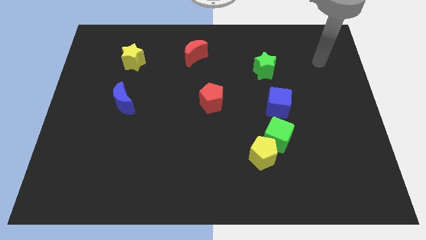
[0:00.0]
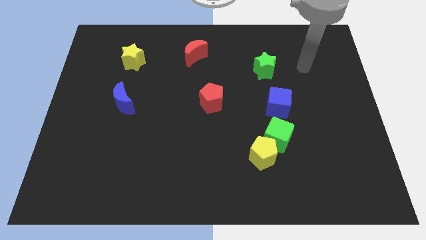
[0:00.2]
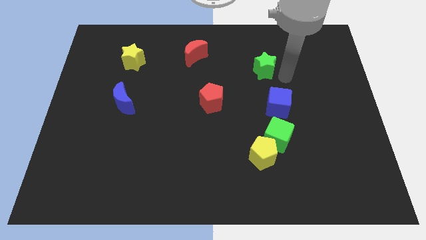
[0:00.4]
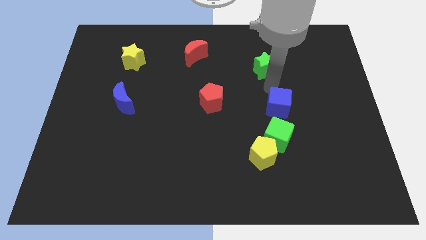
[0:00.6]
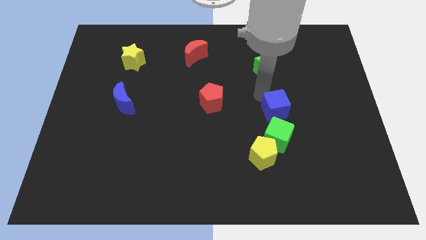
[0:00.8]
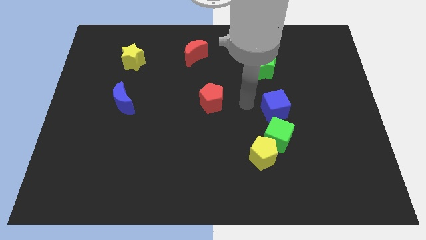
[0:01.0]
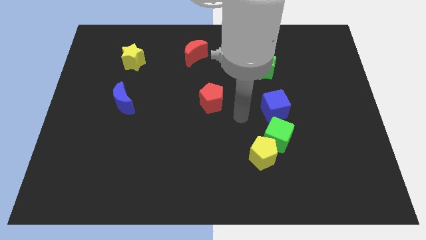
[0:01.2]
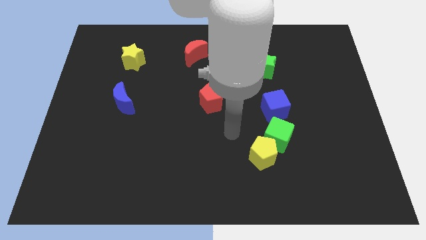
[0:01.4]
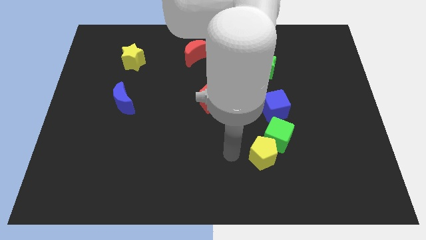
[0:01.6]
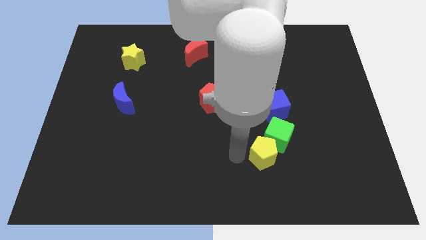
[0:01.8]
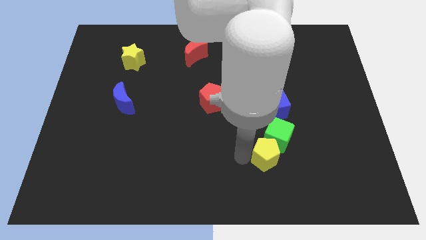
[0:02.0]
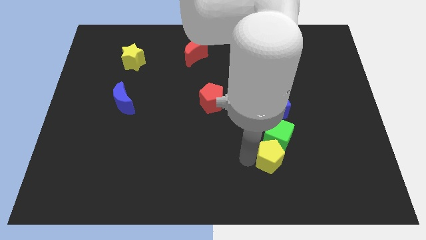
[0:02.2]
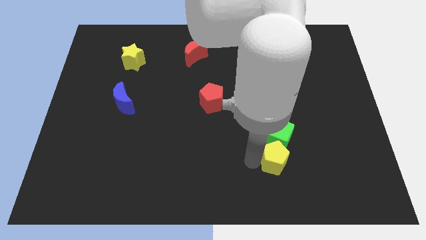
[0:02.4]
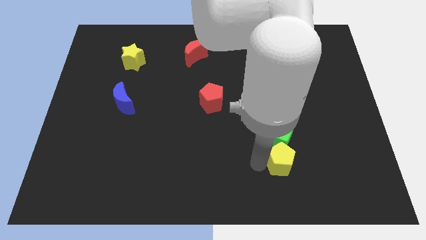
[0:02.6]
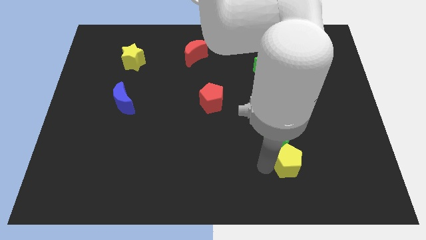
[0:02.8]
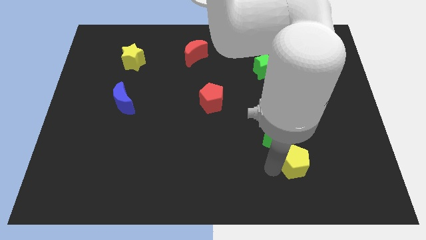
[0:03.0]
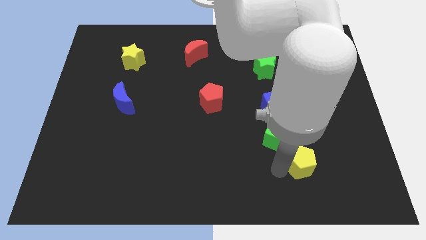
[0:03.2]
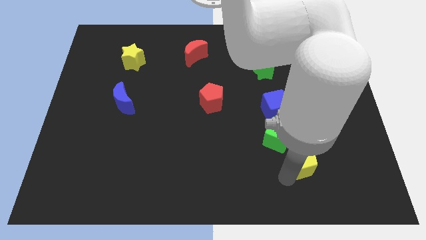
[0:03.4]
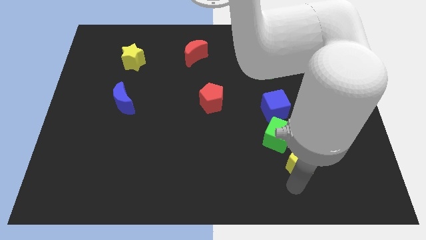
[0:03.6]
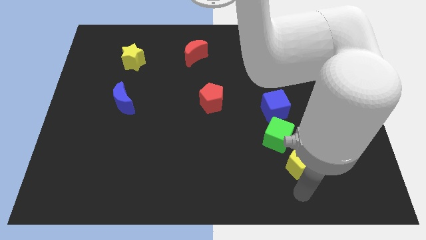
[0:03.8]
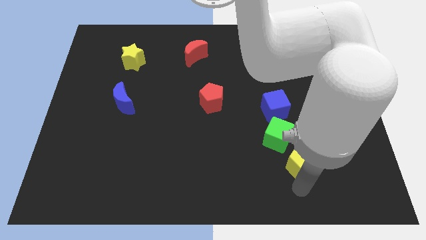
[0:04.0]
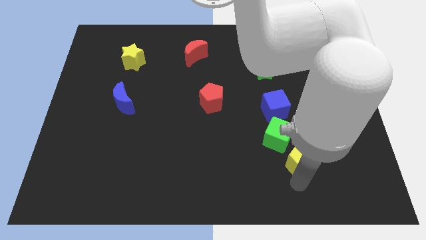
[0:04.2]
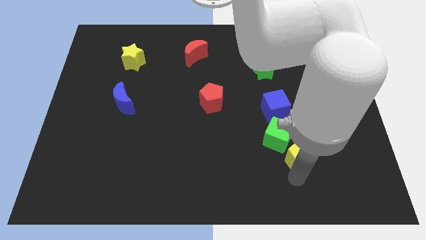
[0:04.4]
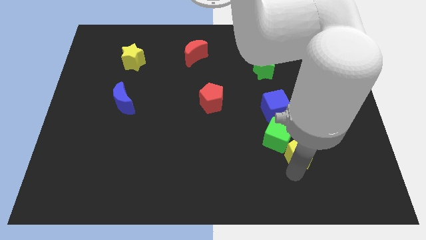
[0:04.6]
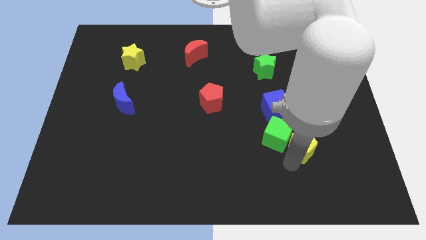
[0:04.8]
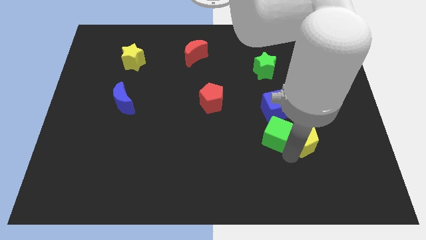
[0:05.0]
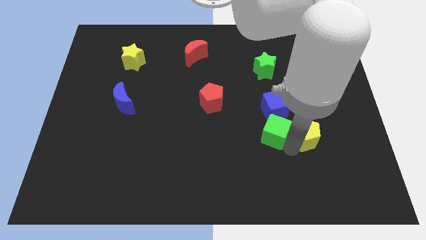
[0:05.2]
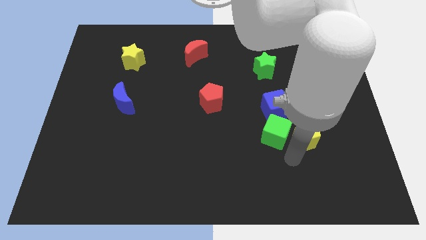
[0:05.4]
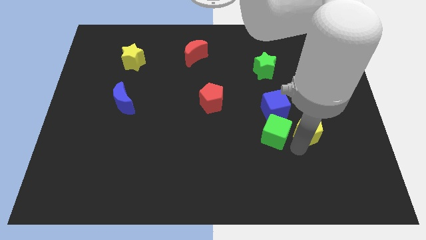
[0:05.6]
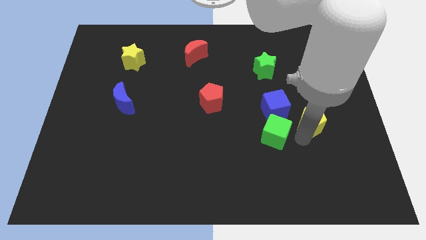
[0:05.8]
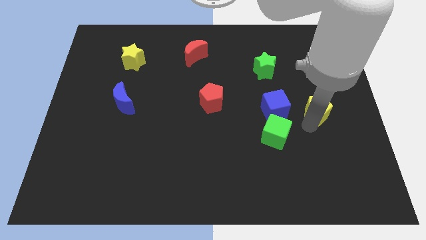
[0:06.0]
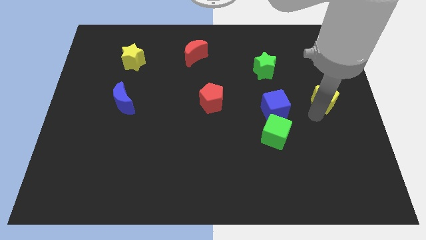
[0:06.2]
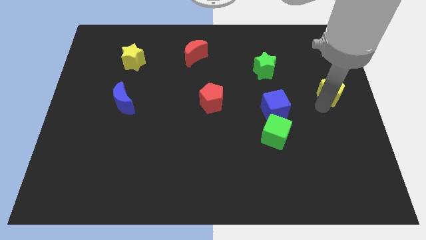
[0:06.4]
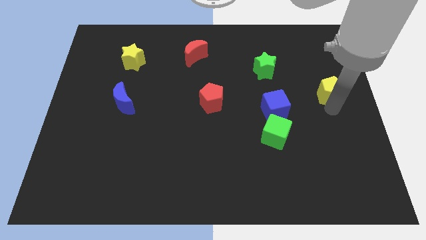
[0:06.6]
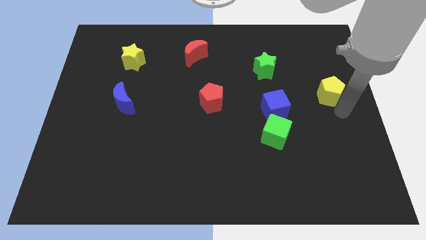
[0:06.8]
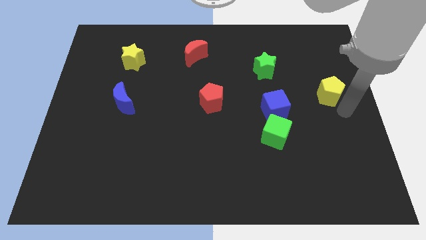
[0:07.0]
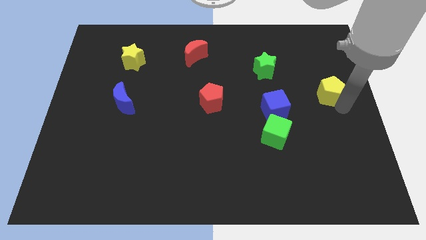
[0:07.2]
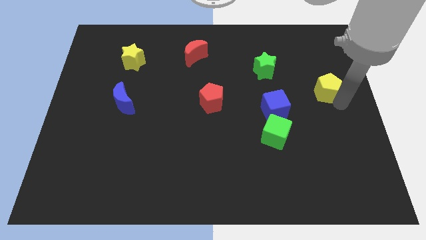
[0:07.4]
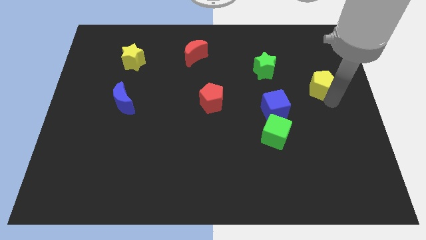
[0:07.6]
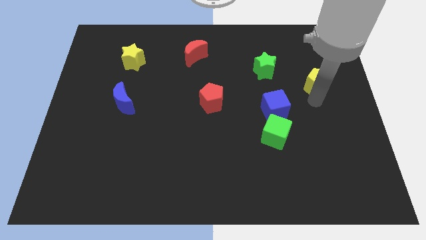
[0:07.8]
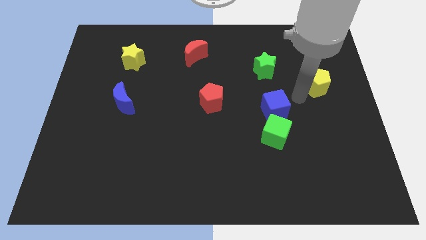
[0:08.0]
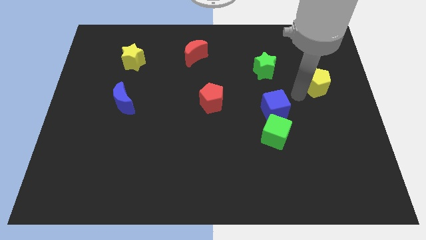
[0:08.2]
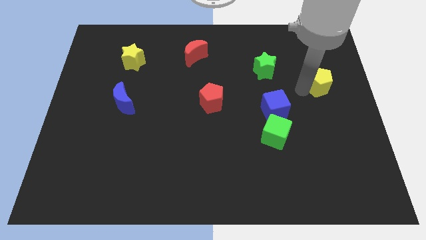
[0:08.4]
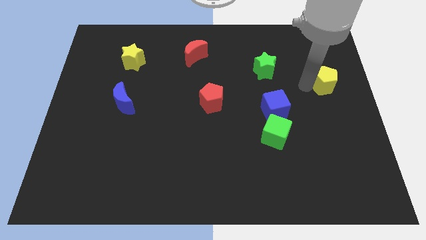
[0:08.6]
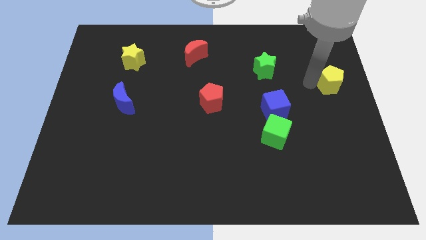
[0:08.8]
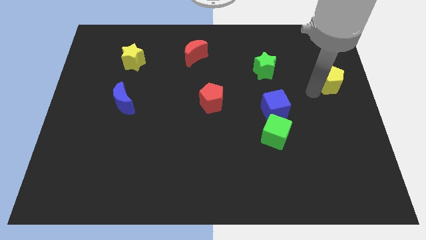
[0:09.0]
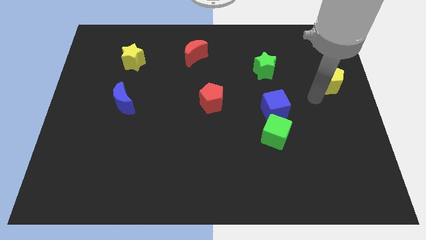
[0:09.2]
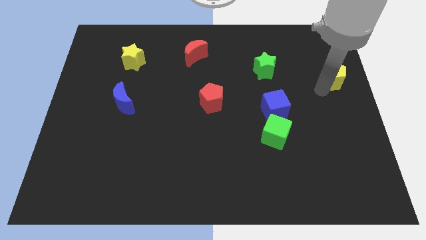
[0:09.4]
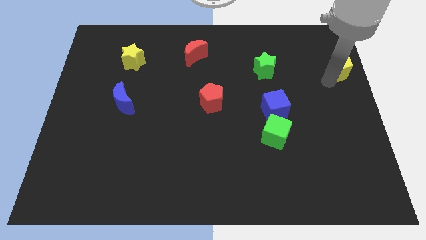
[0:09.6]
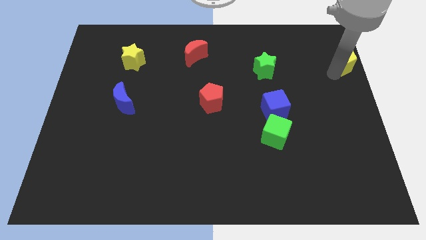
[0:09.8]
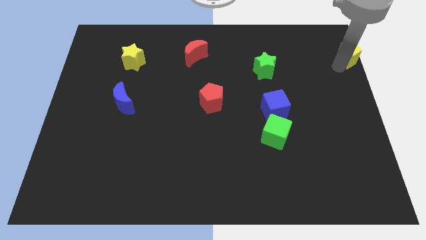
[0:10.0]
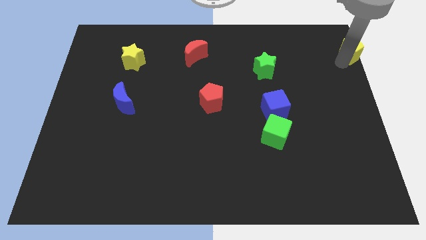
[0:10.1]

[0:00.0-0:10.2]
push the yellow pentagon to the top right corner

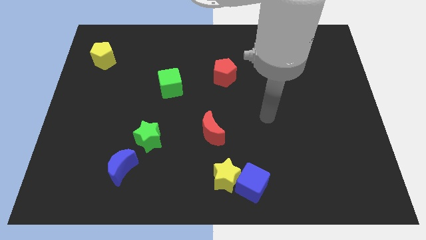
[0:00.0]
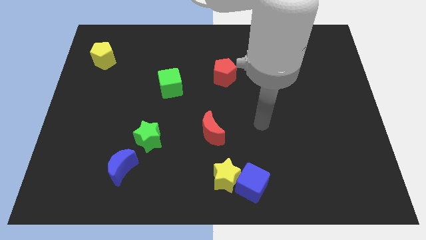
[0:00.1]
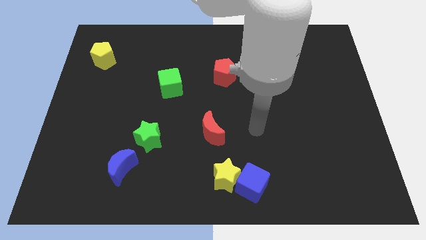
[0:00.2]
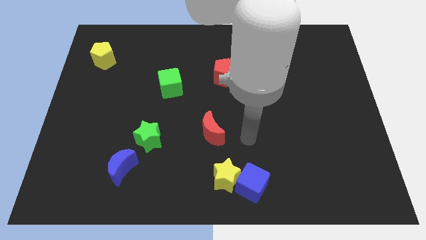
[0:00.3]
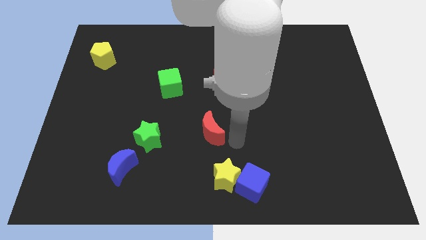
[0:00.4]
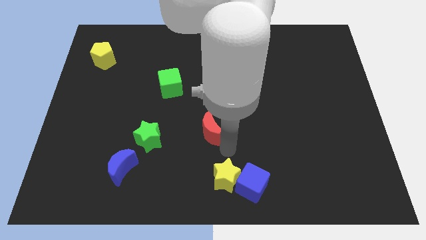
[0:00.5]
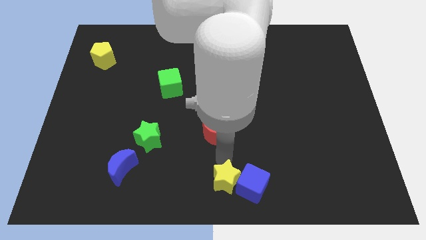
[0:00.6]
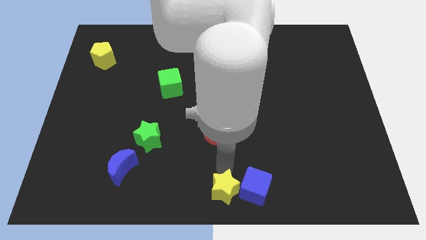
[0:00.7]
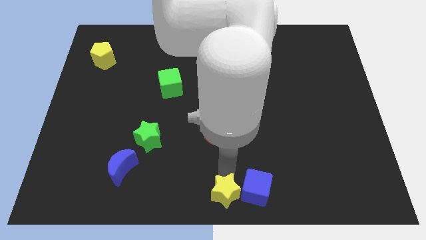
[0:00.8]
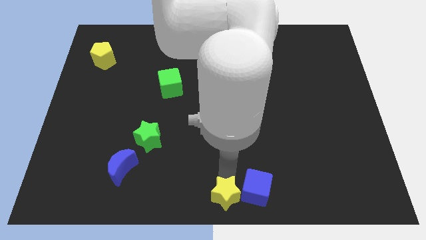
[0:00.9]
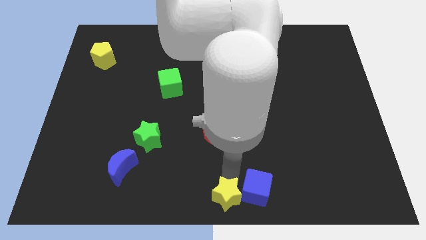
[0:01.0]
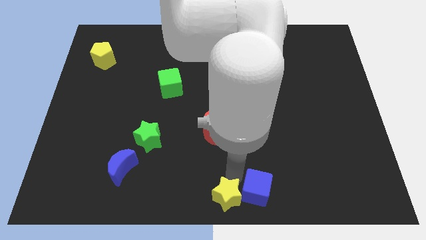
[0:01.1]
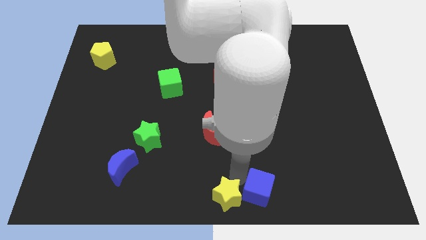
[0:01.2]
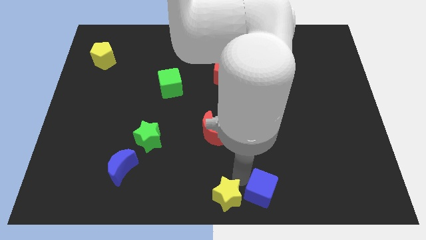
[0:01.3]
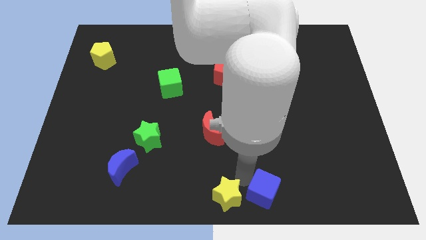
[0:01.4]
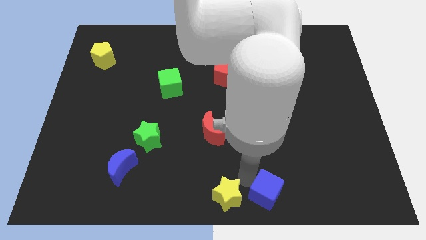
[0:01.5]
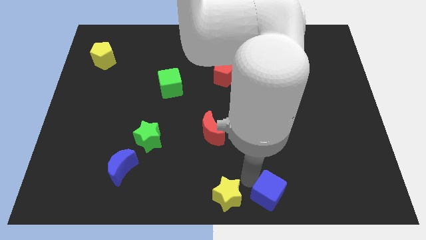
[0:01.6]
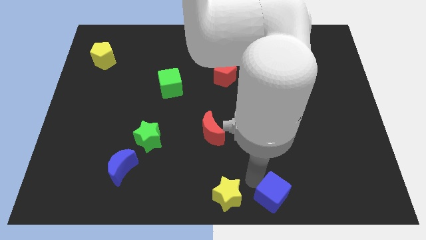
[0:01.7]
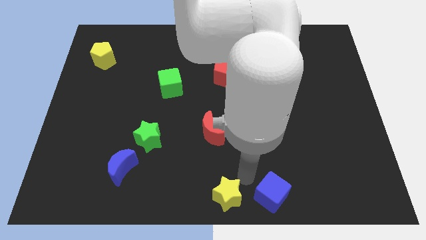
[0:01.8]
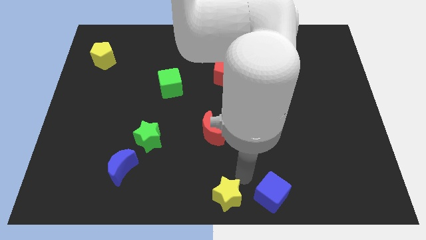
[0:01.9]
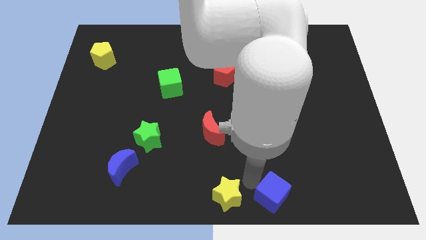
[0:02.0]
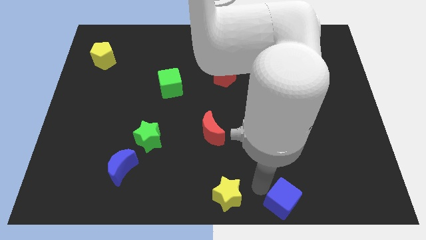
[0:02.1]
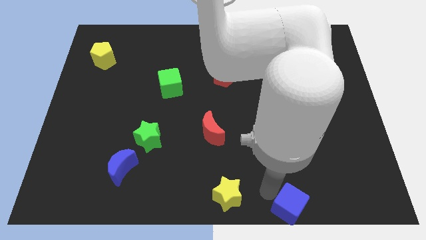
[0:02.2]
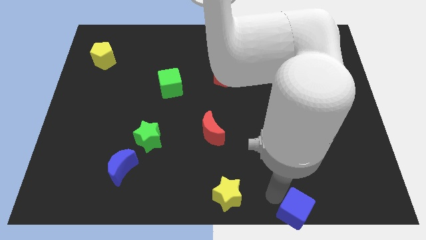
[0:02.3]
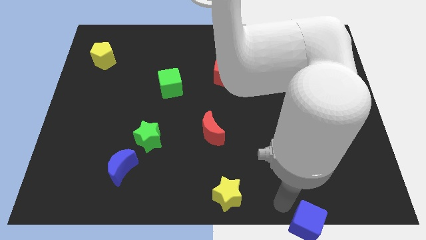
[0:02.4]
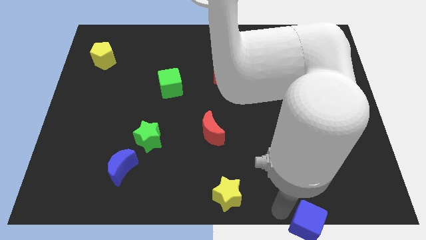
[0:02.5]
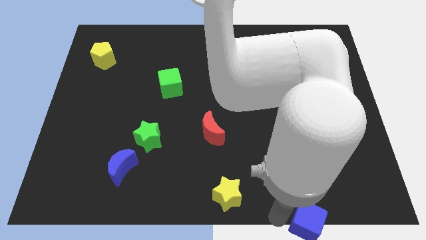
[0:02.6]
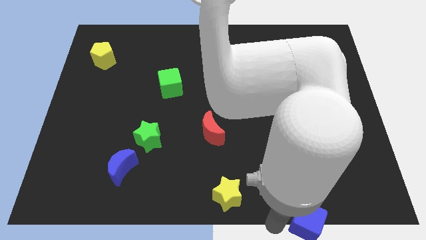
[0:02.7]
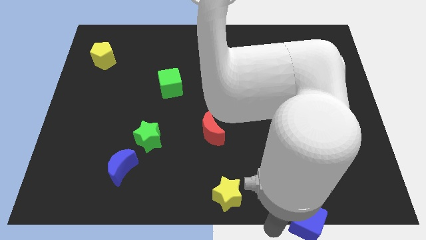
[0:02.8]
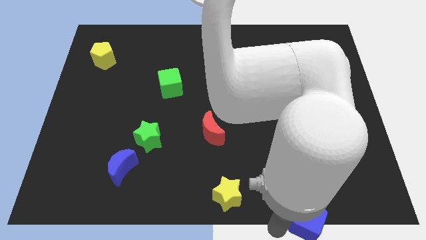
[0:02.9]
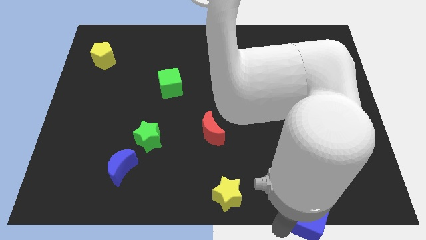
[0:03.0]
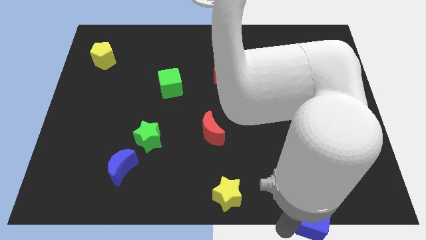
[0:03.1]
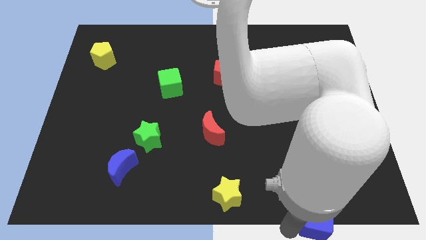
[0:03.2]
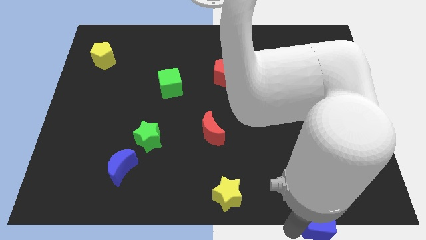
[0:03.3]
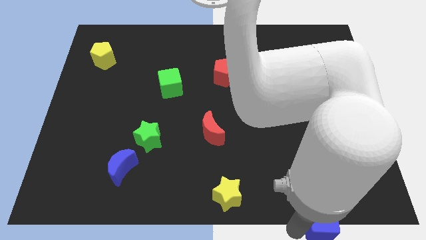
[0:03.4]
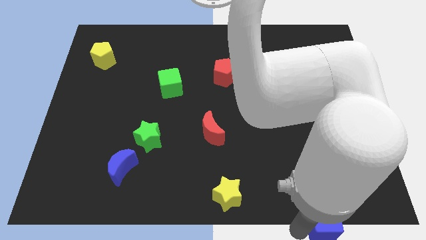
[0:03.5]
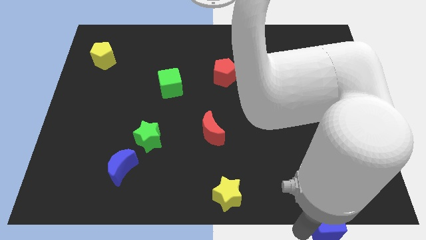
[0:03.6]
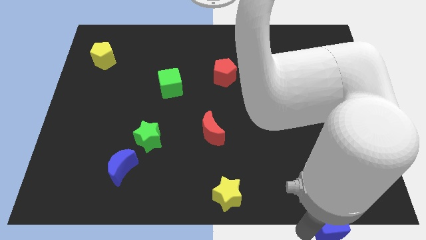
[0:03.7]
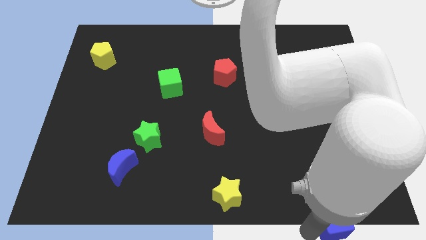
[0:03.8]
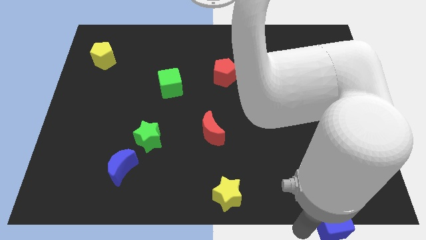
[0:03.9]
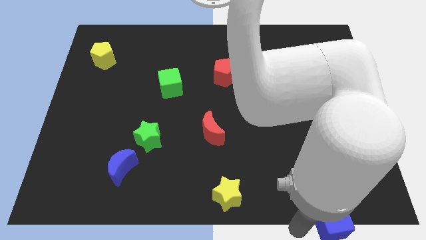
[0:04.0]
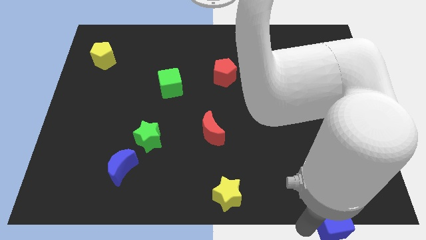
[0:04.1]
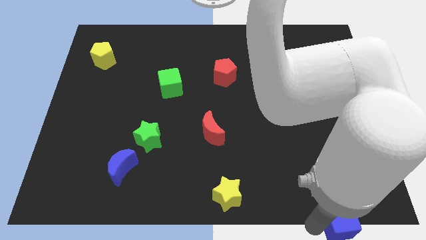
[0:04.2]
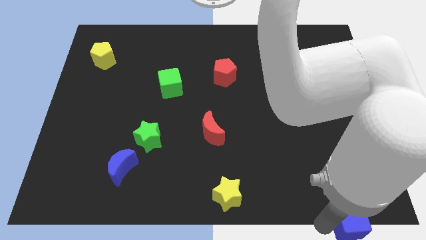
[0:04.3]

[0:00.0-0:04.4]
slide the blue cube to the bottom right corner
